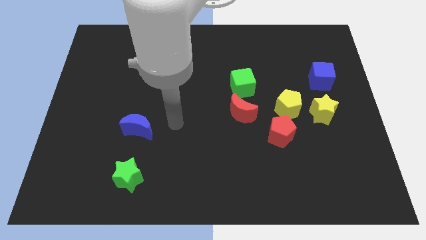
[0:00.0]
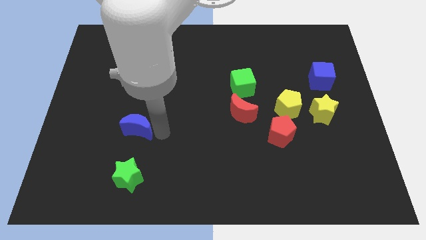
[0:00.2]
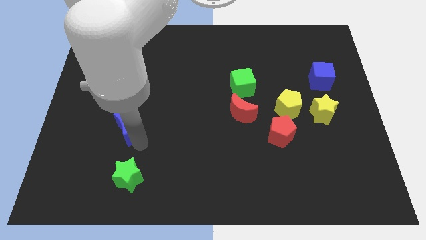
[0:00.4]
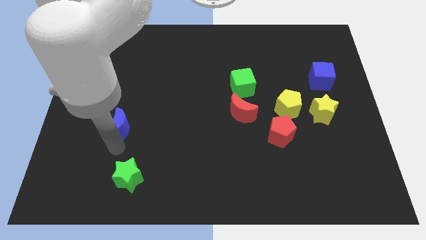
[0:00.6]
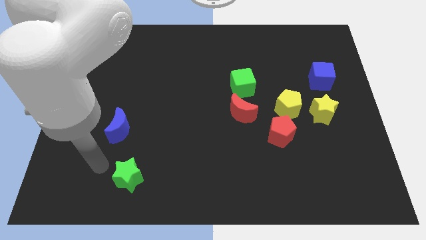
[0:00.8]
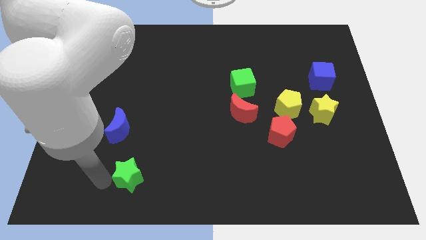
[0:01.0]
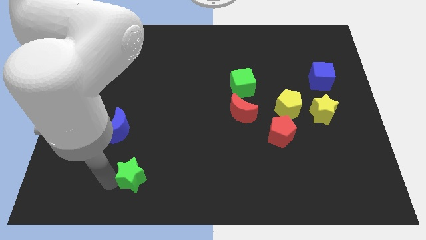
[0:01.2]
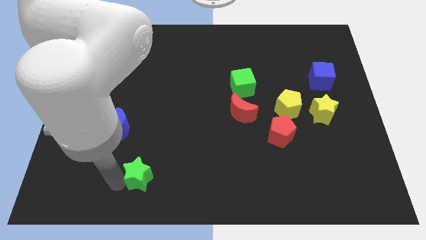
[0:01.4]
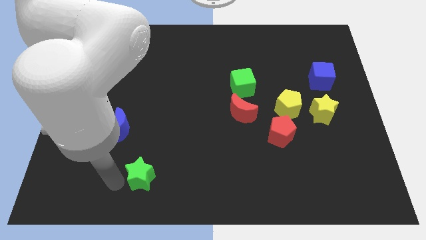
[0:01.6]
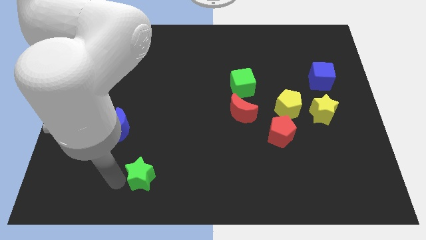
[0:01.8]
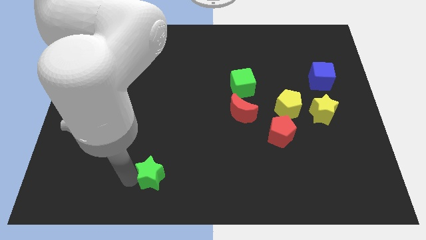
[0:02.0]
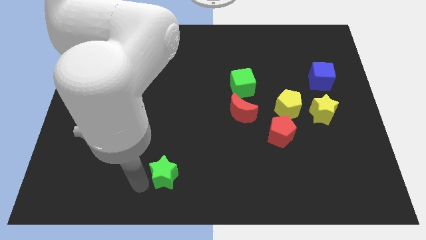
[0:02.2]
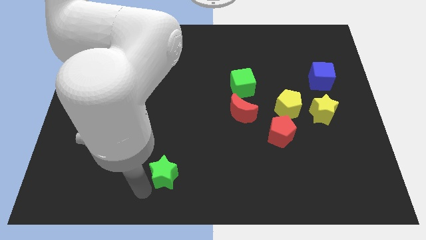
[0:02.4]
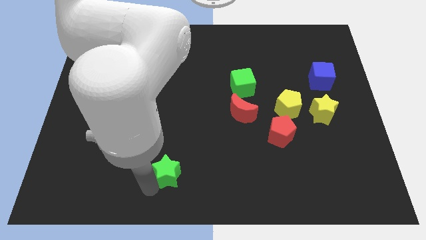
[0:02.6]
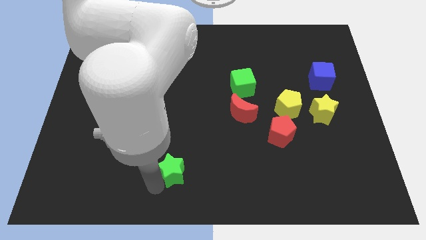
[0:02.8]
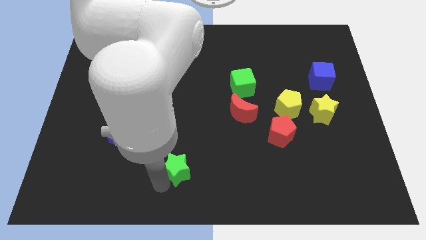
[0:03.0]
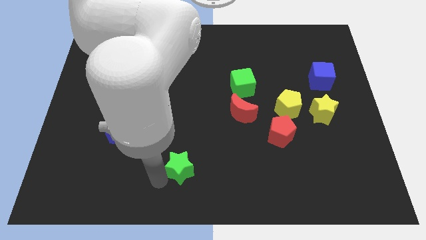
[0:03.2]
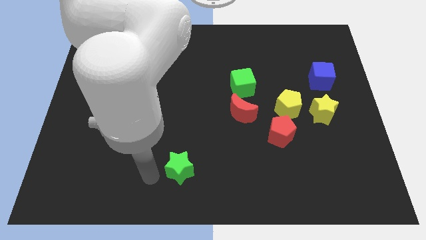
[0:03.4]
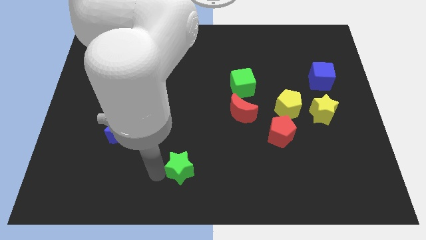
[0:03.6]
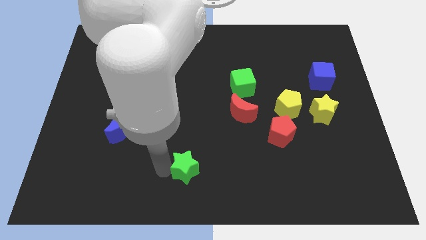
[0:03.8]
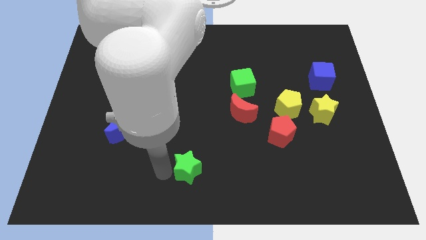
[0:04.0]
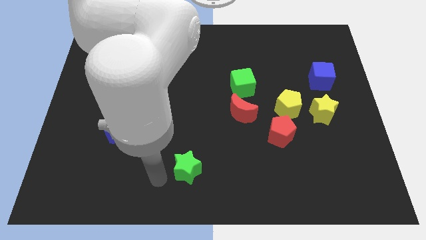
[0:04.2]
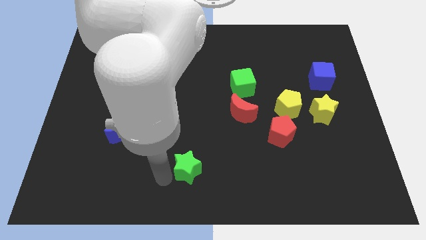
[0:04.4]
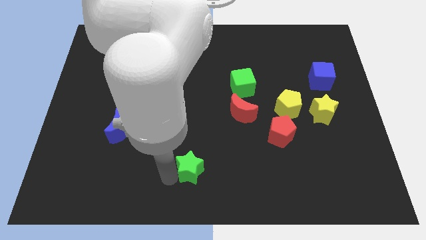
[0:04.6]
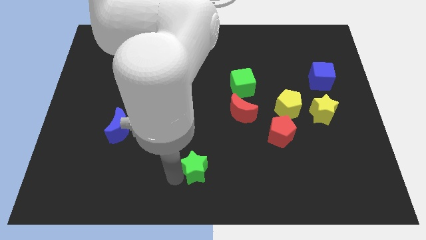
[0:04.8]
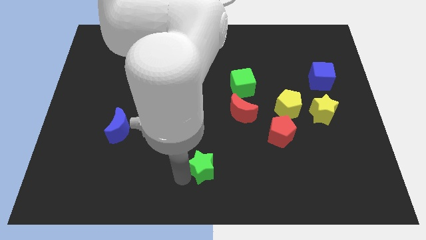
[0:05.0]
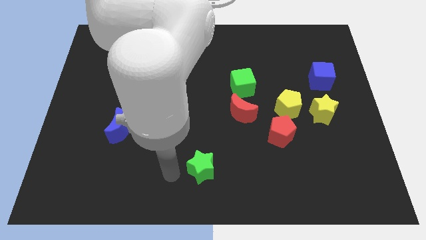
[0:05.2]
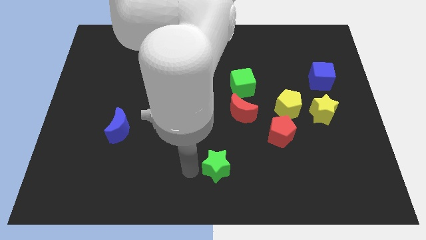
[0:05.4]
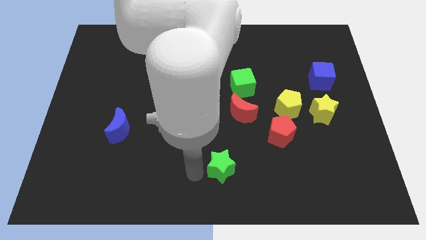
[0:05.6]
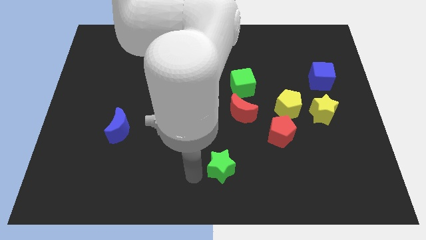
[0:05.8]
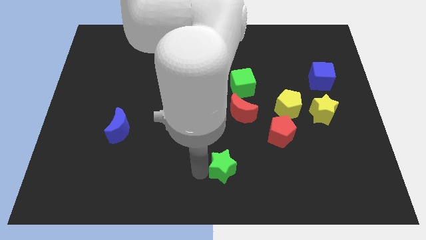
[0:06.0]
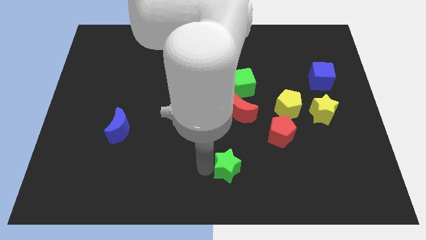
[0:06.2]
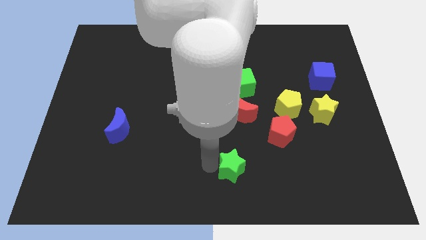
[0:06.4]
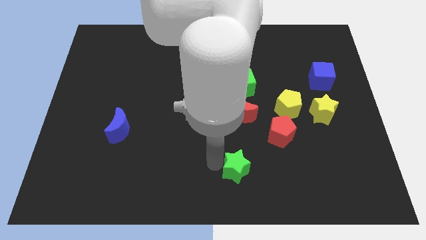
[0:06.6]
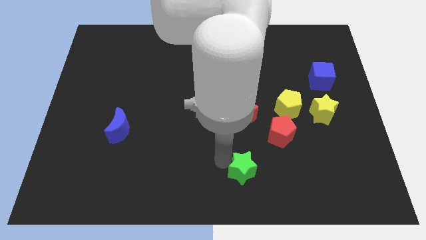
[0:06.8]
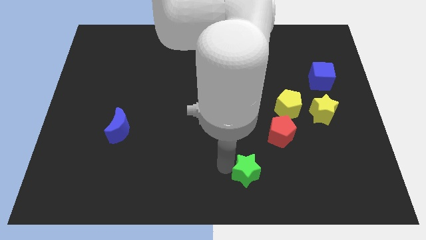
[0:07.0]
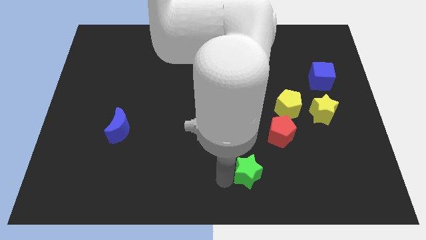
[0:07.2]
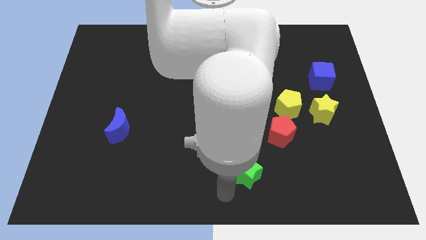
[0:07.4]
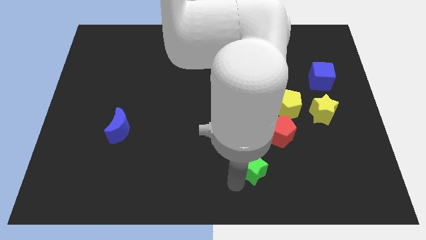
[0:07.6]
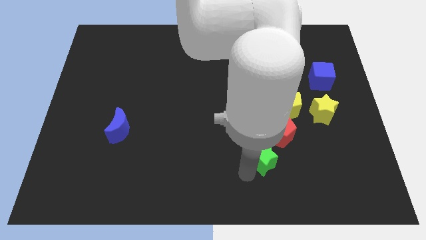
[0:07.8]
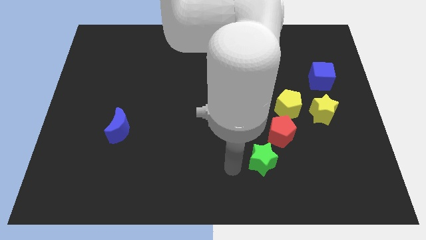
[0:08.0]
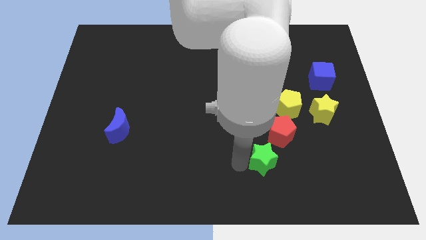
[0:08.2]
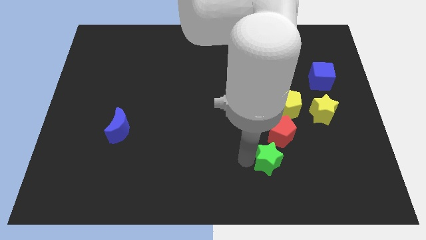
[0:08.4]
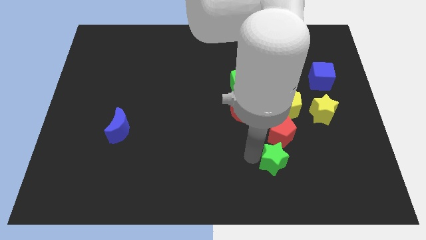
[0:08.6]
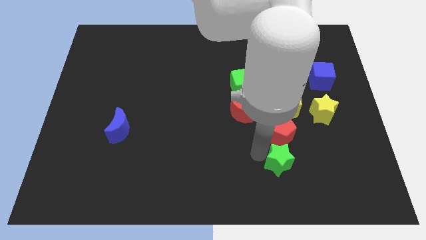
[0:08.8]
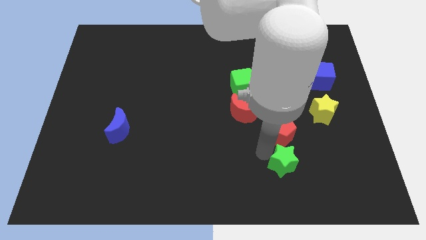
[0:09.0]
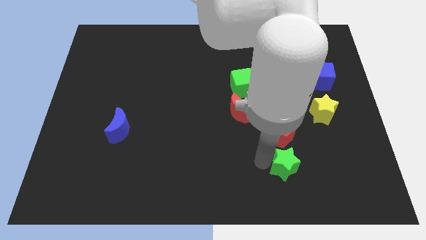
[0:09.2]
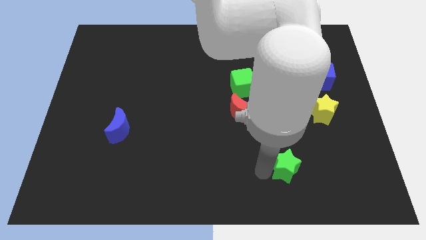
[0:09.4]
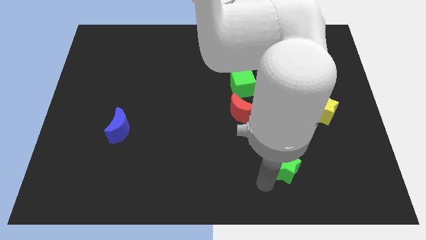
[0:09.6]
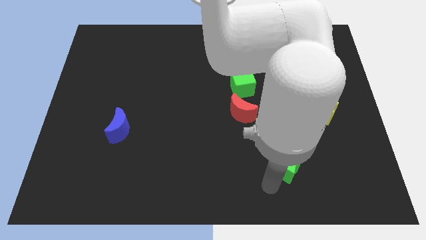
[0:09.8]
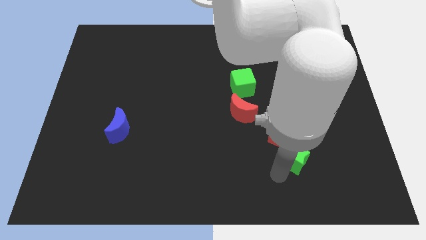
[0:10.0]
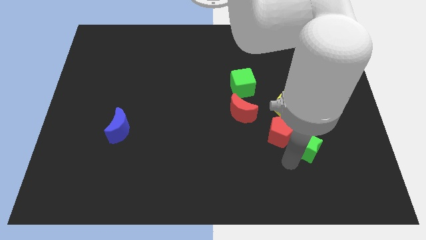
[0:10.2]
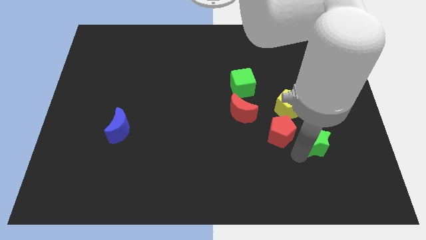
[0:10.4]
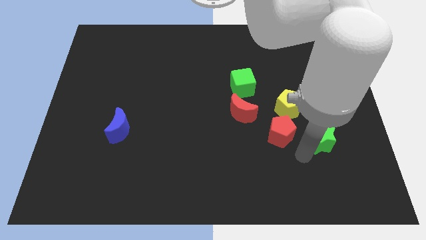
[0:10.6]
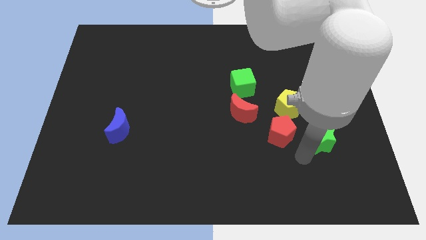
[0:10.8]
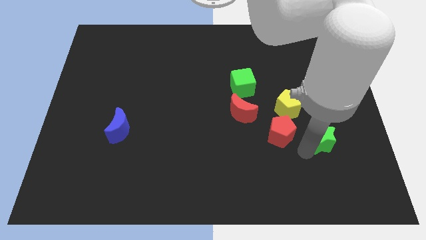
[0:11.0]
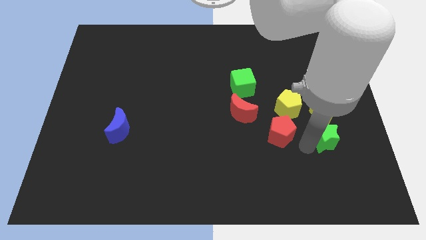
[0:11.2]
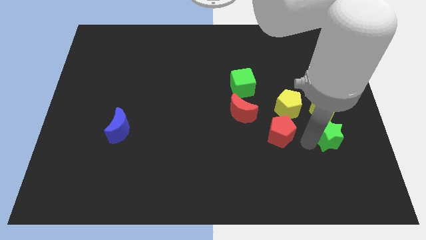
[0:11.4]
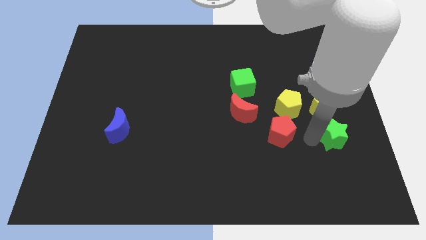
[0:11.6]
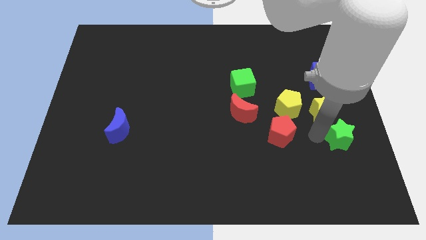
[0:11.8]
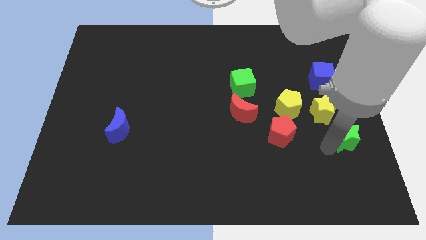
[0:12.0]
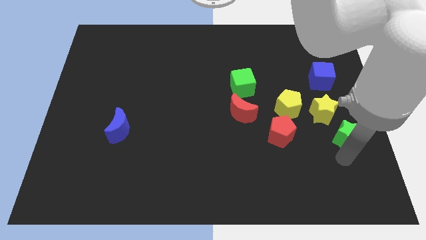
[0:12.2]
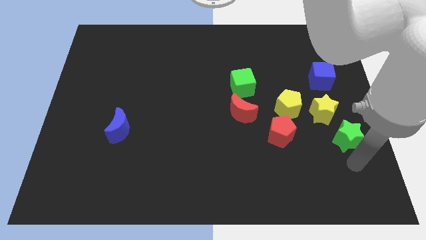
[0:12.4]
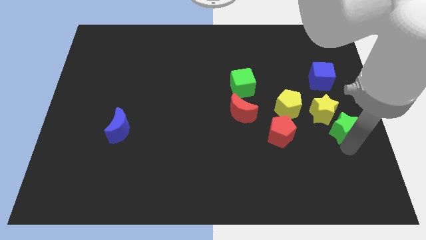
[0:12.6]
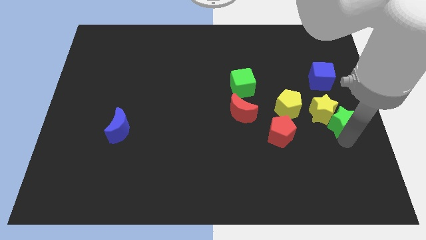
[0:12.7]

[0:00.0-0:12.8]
push the green star just right of the yellow pentagon
